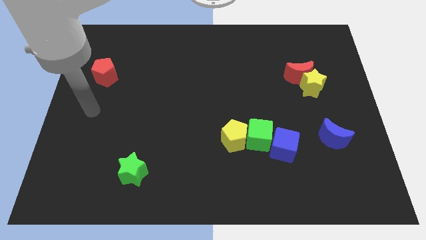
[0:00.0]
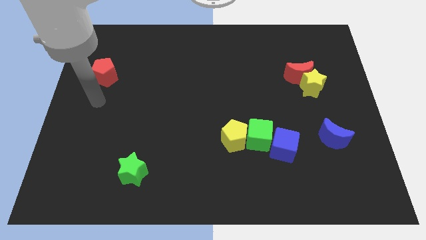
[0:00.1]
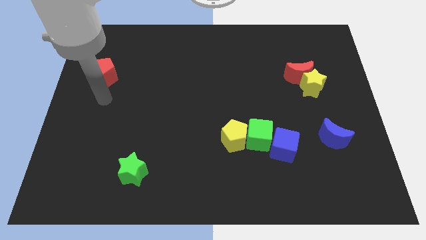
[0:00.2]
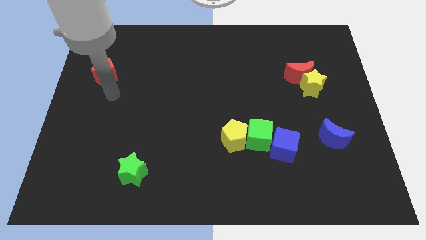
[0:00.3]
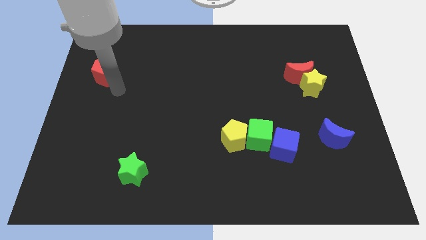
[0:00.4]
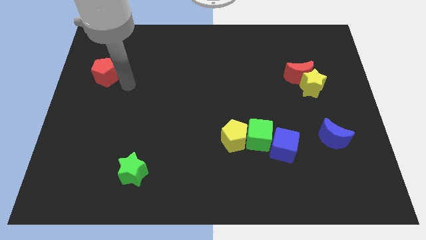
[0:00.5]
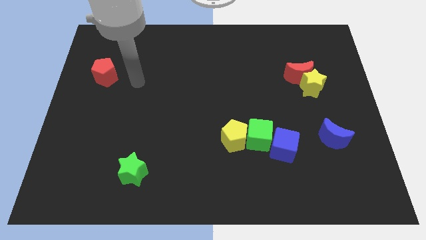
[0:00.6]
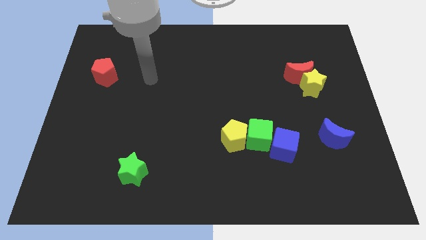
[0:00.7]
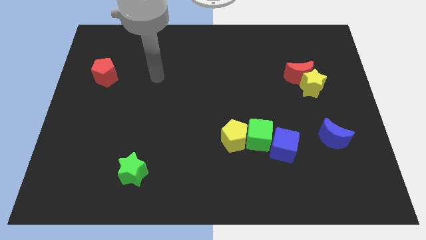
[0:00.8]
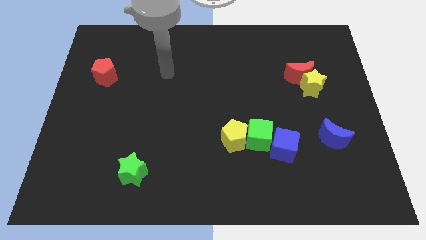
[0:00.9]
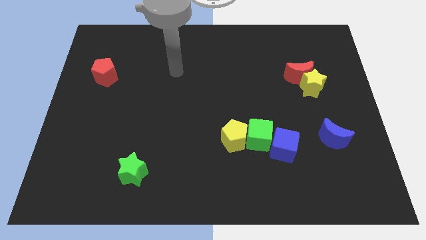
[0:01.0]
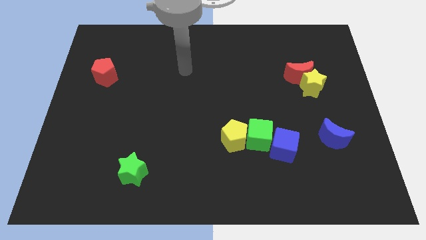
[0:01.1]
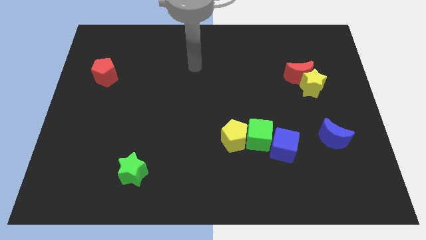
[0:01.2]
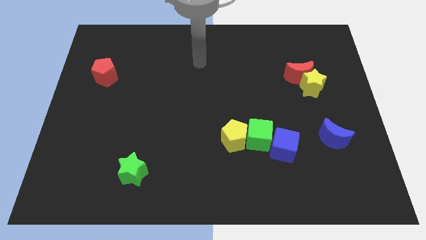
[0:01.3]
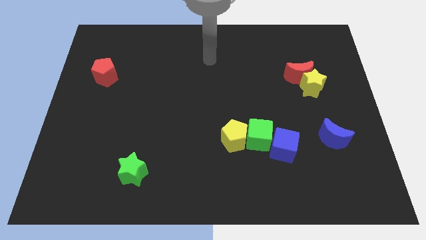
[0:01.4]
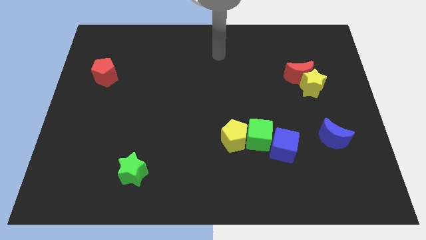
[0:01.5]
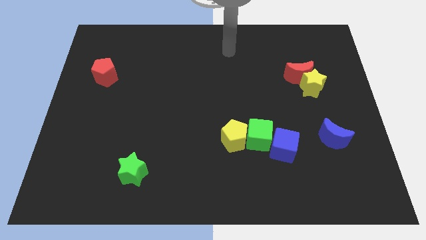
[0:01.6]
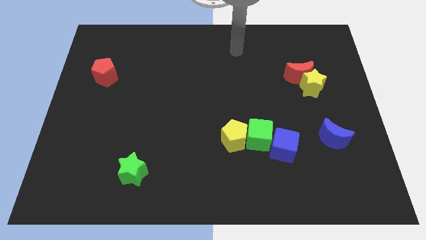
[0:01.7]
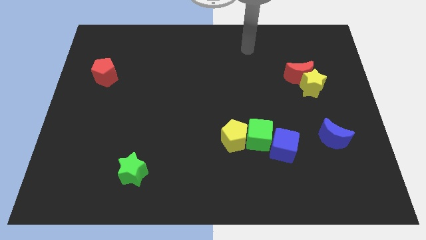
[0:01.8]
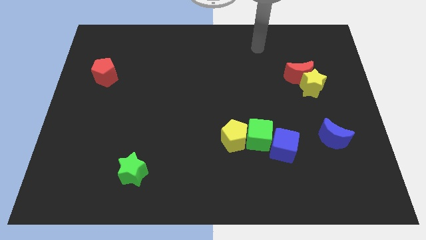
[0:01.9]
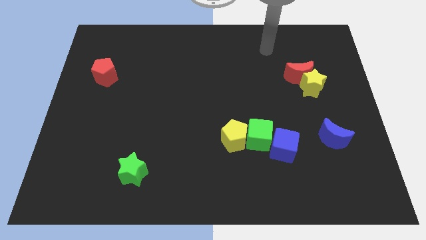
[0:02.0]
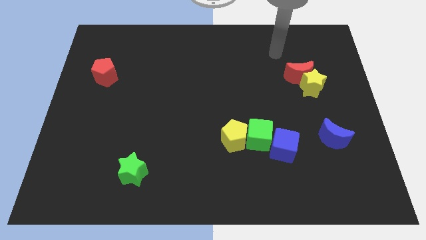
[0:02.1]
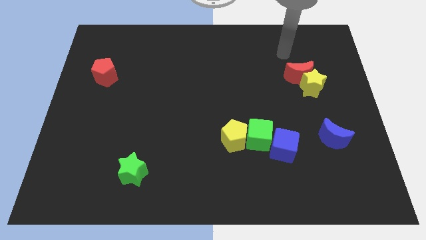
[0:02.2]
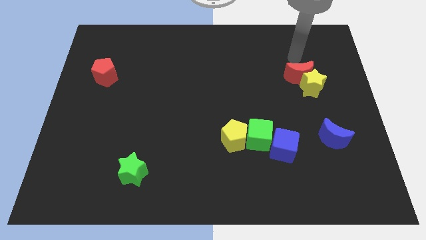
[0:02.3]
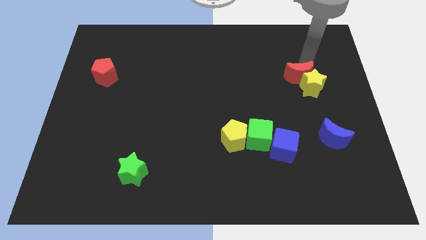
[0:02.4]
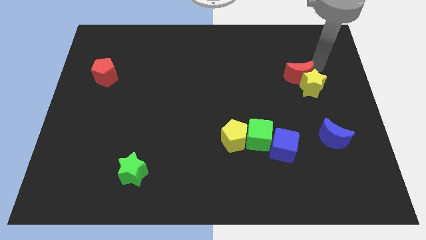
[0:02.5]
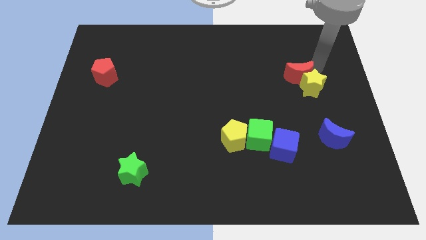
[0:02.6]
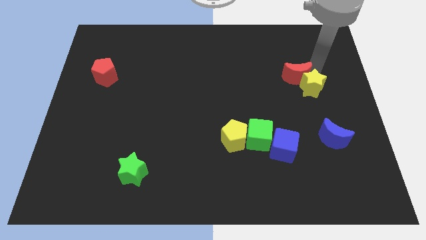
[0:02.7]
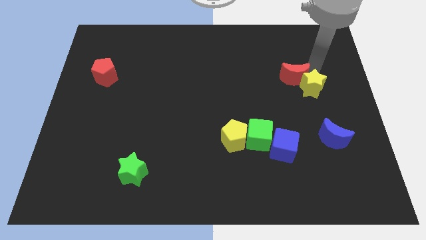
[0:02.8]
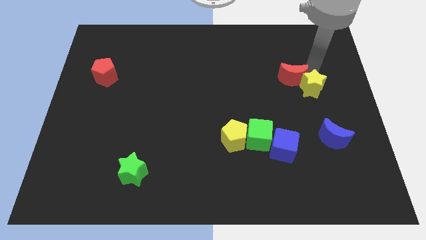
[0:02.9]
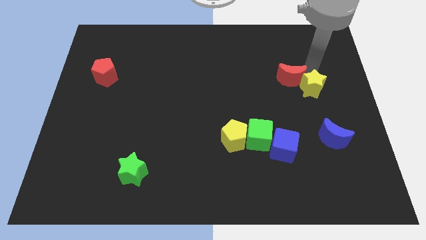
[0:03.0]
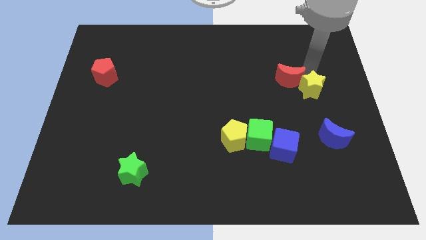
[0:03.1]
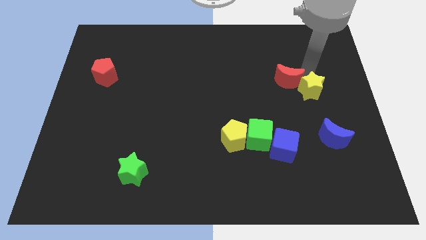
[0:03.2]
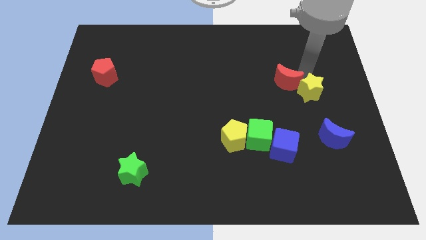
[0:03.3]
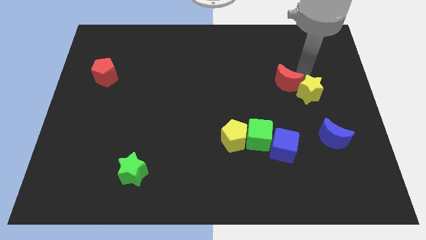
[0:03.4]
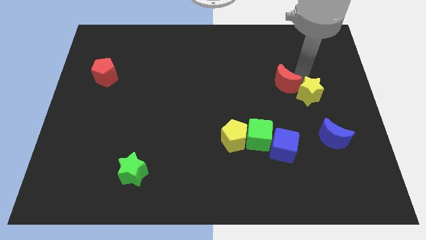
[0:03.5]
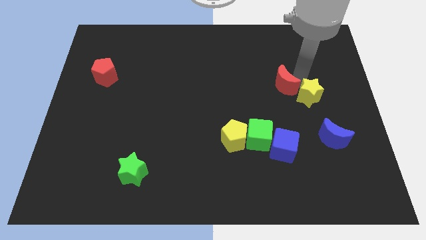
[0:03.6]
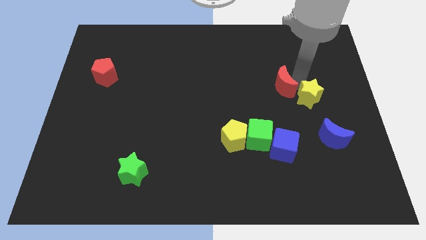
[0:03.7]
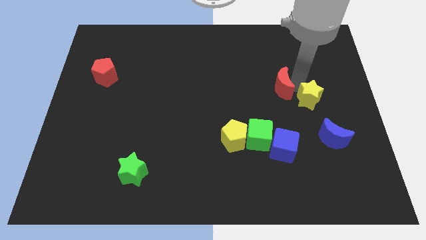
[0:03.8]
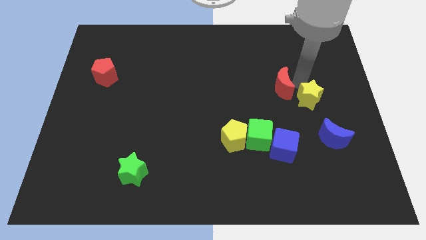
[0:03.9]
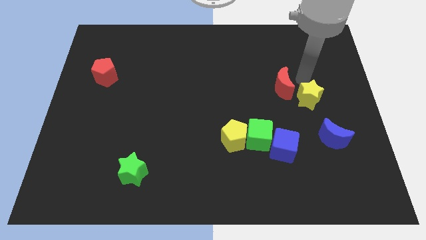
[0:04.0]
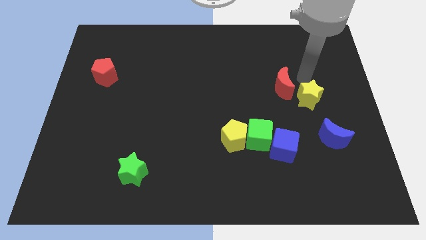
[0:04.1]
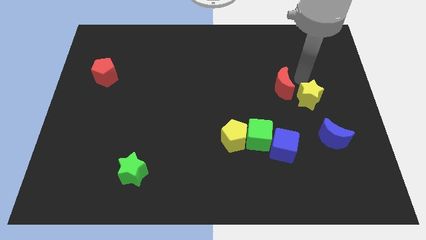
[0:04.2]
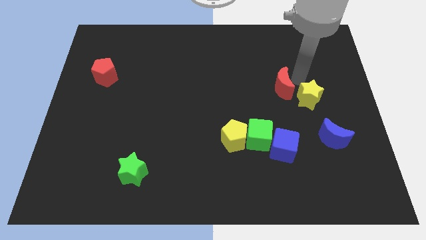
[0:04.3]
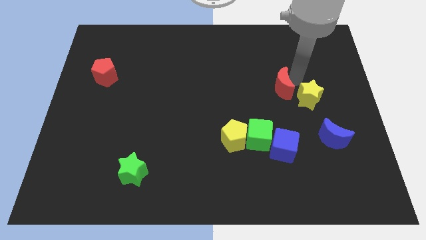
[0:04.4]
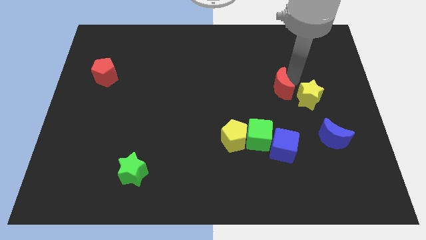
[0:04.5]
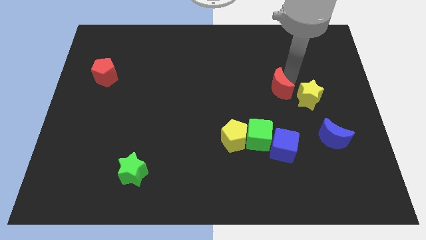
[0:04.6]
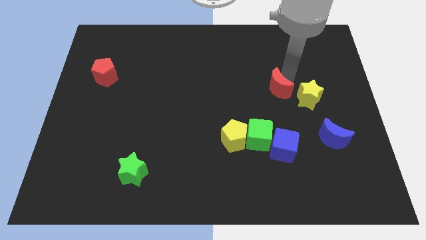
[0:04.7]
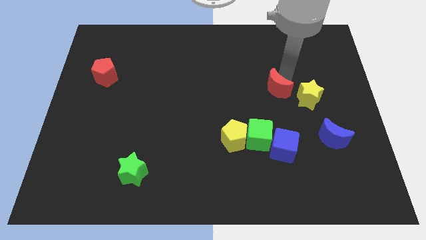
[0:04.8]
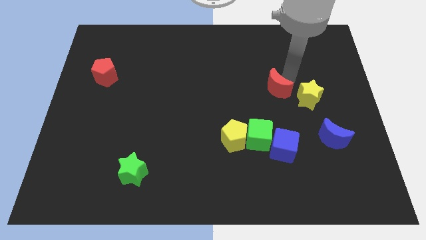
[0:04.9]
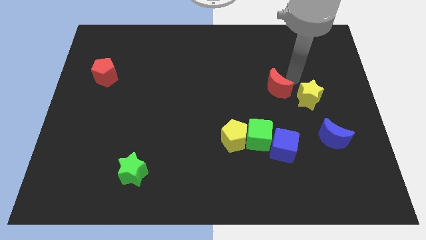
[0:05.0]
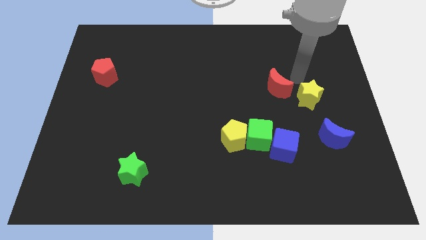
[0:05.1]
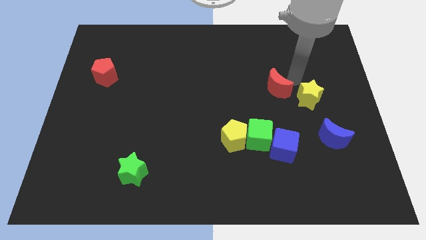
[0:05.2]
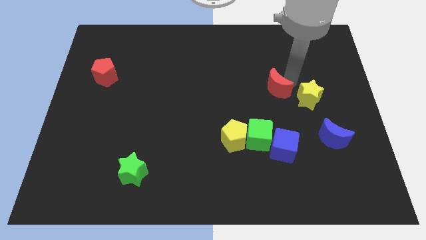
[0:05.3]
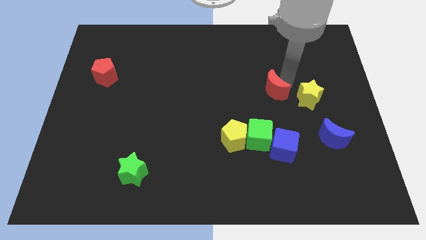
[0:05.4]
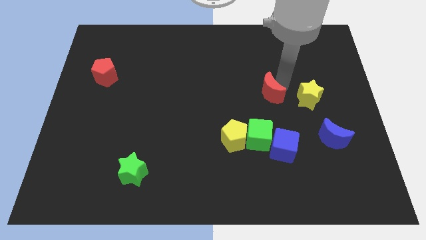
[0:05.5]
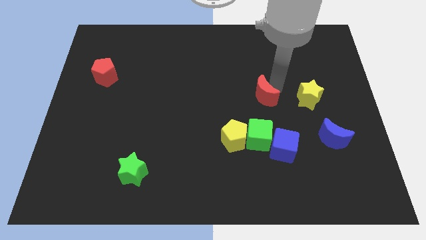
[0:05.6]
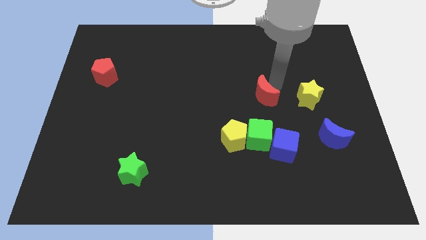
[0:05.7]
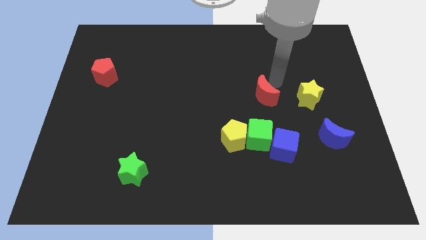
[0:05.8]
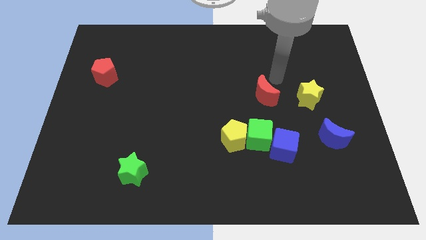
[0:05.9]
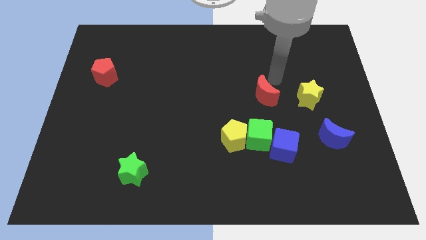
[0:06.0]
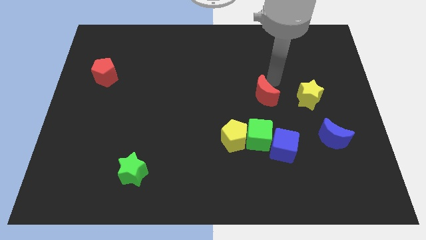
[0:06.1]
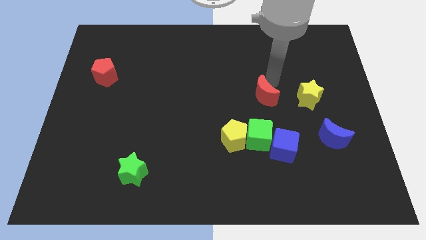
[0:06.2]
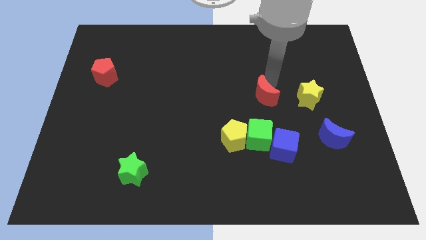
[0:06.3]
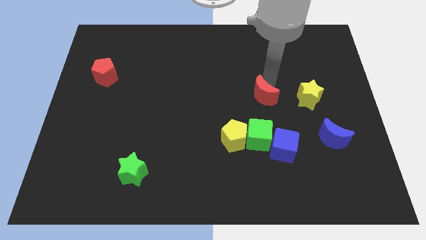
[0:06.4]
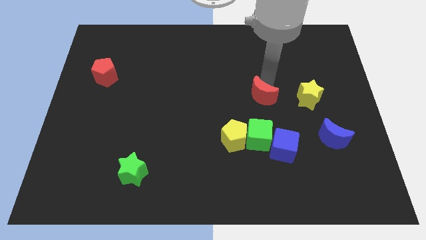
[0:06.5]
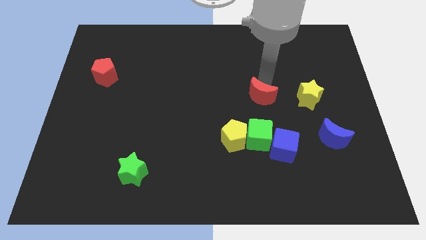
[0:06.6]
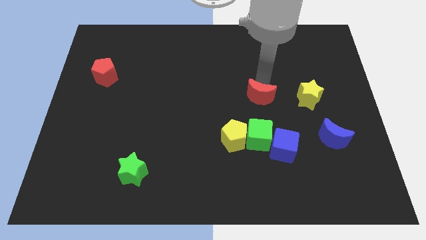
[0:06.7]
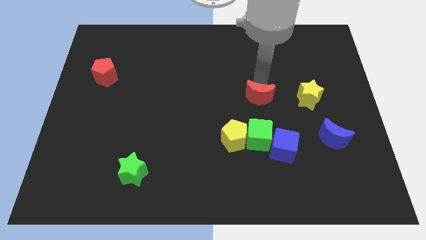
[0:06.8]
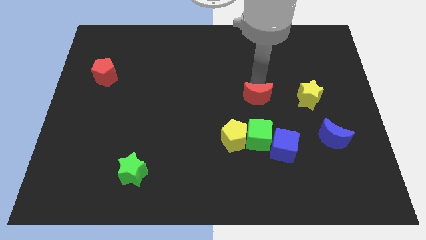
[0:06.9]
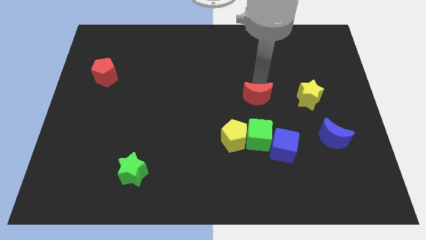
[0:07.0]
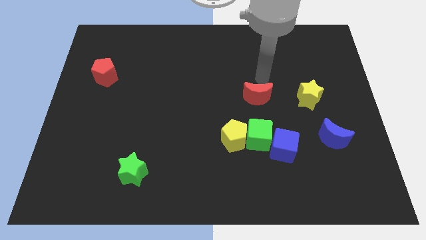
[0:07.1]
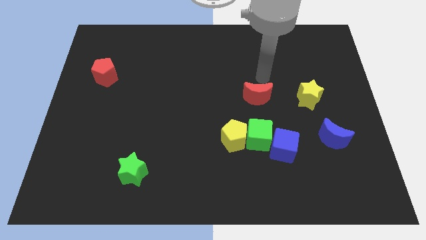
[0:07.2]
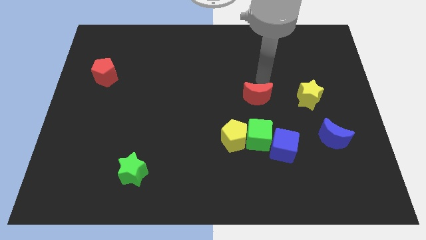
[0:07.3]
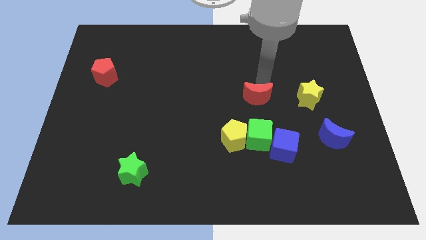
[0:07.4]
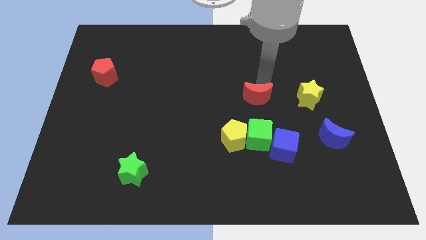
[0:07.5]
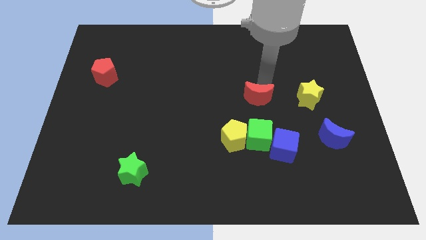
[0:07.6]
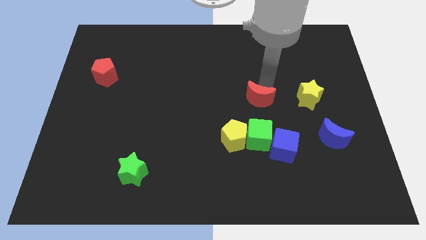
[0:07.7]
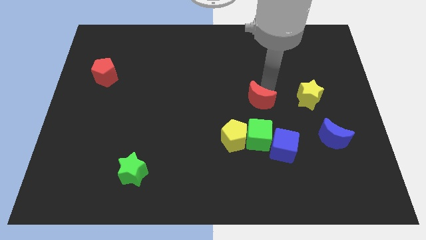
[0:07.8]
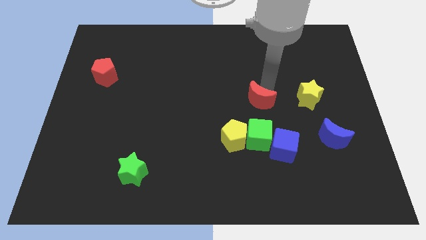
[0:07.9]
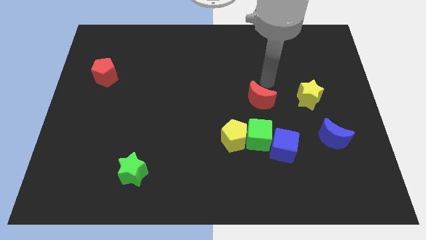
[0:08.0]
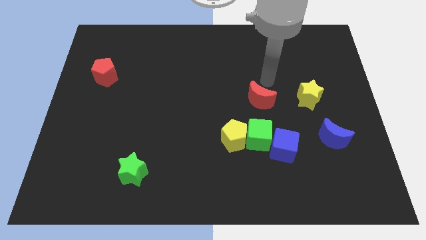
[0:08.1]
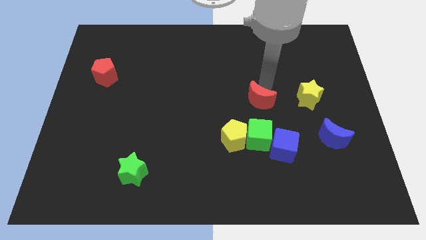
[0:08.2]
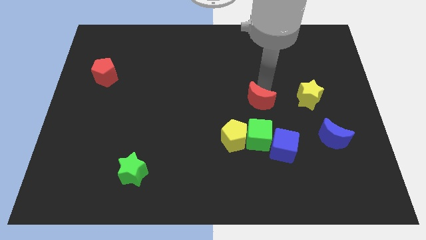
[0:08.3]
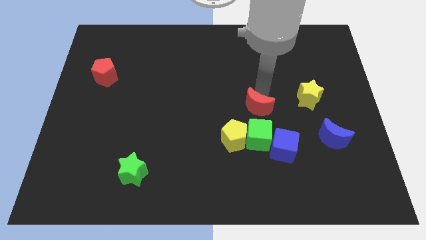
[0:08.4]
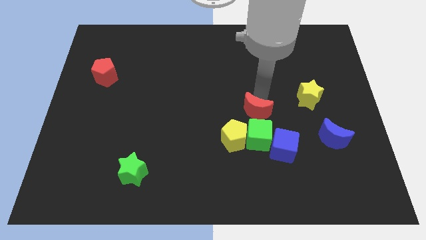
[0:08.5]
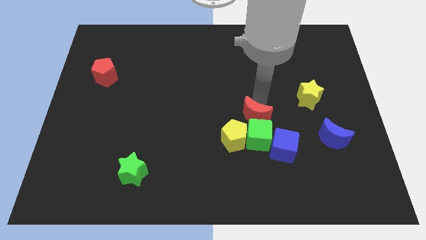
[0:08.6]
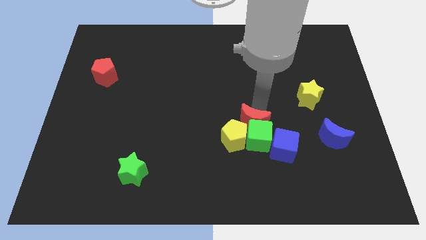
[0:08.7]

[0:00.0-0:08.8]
slide the red moon to the yellow pentagon
